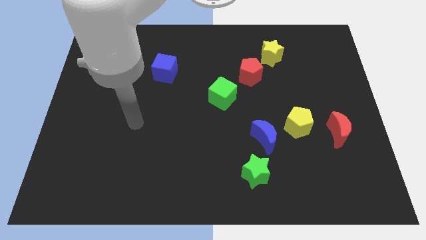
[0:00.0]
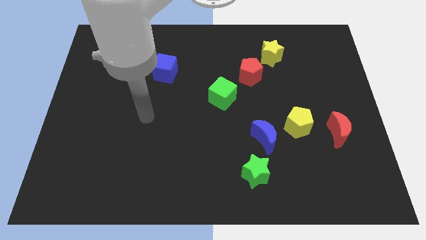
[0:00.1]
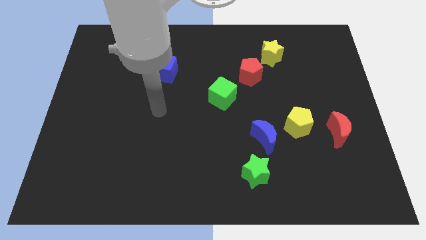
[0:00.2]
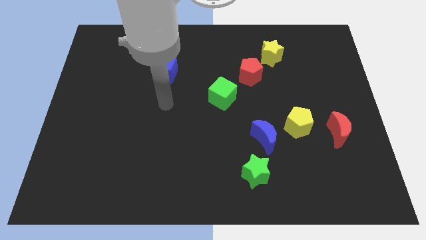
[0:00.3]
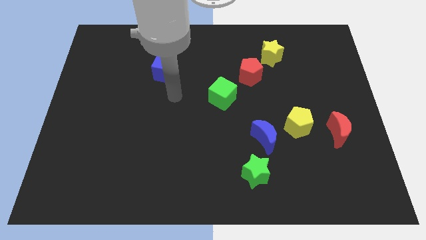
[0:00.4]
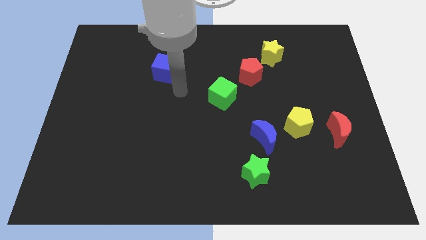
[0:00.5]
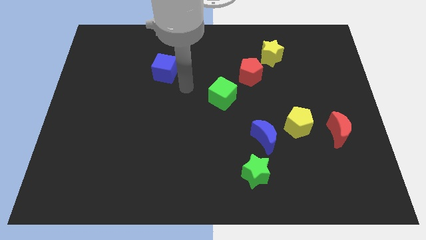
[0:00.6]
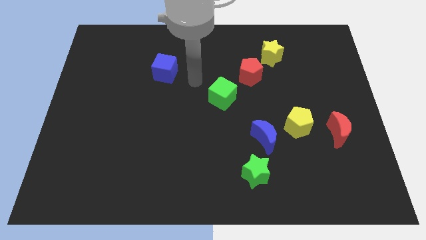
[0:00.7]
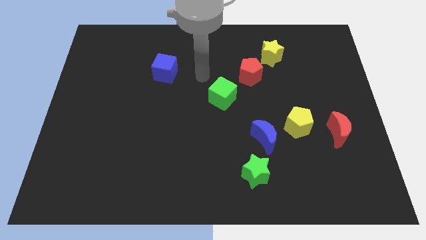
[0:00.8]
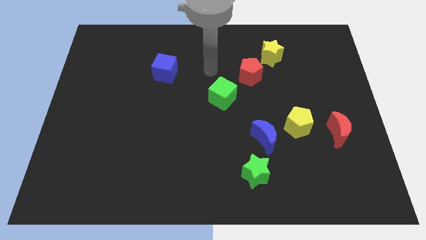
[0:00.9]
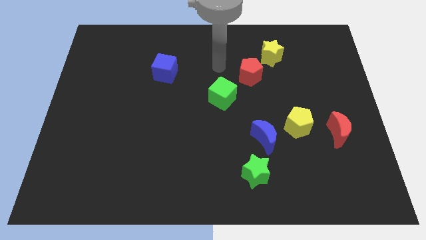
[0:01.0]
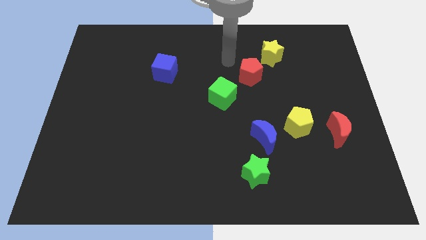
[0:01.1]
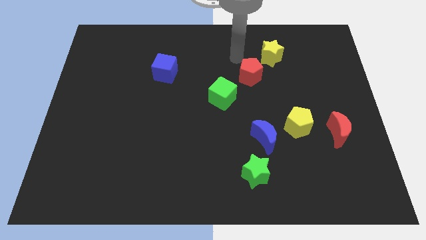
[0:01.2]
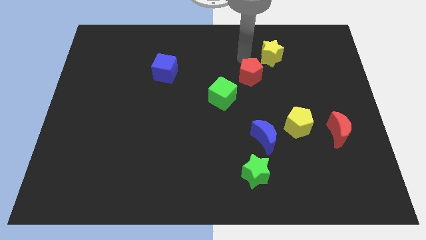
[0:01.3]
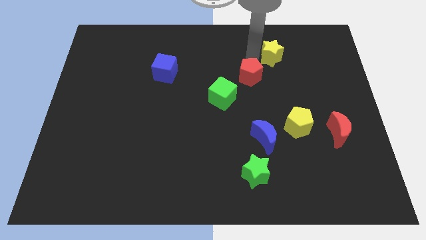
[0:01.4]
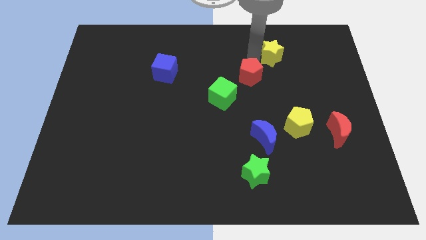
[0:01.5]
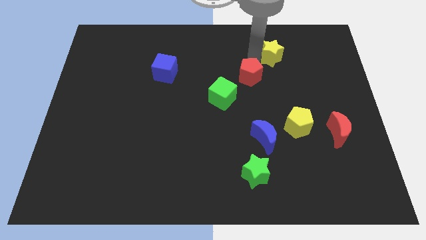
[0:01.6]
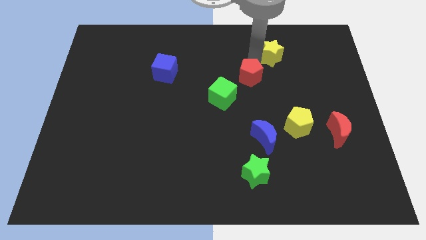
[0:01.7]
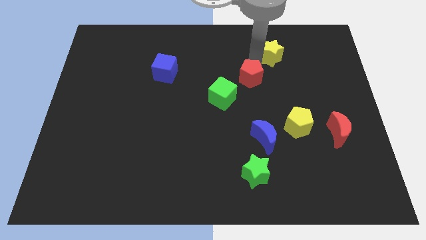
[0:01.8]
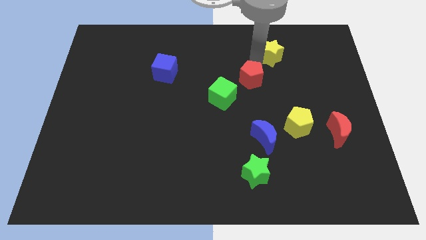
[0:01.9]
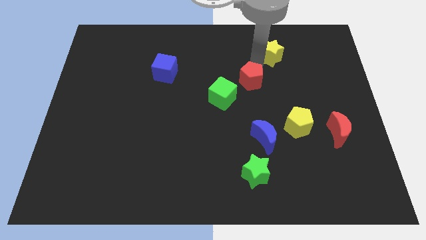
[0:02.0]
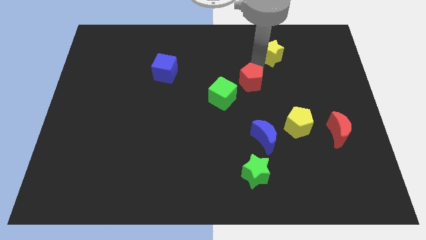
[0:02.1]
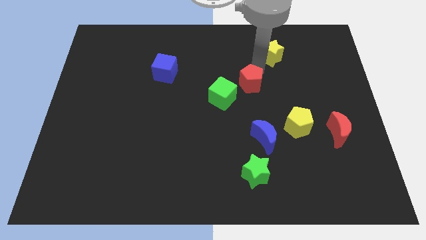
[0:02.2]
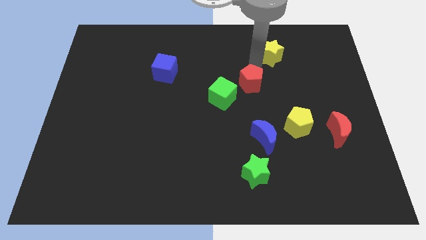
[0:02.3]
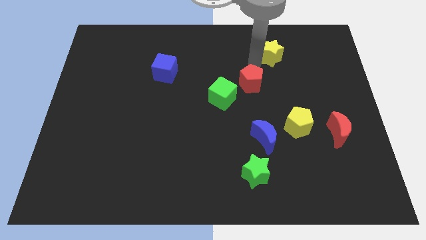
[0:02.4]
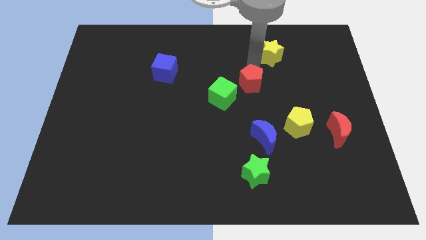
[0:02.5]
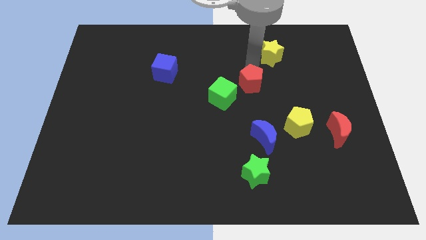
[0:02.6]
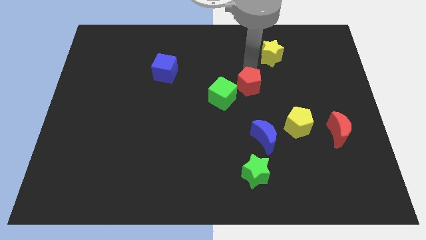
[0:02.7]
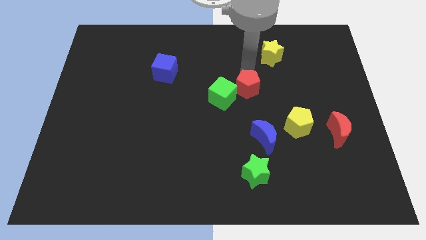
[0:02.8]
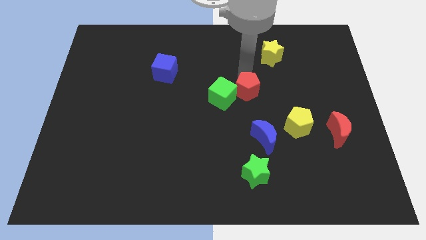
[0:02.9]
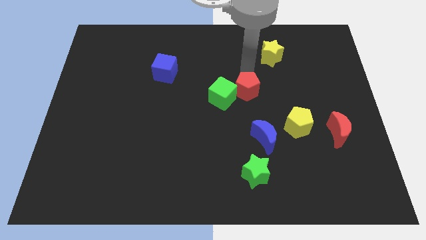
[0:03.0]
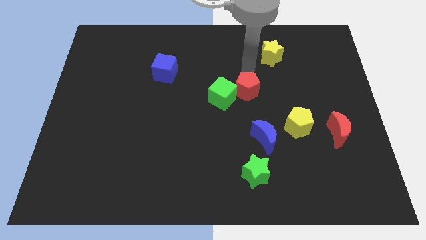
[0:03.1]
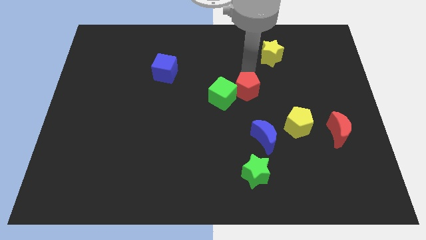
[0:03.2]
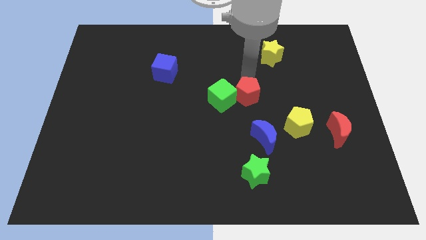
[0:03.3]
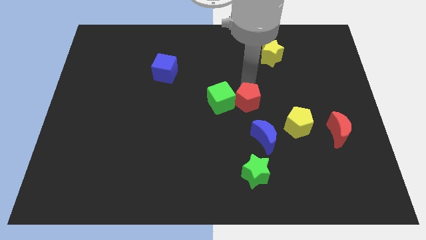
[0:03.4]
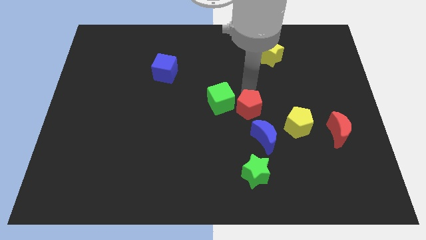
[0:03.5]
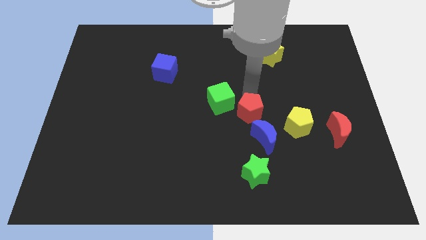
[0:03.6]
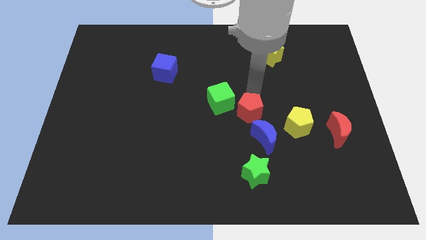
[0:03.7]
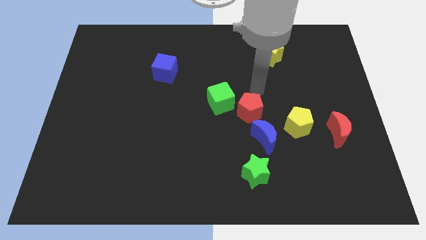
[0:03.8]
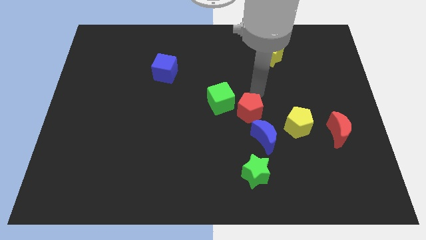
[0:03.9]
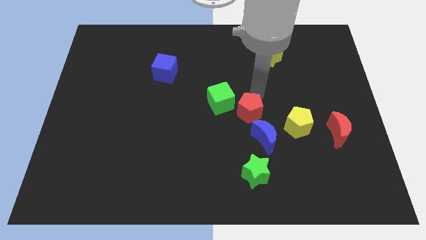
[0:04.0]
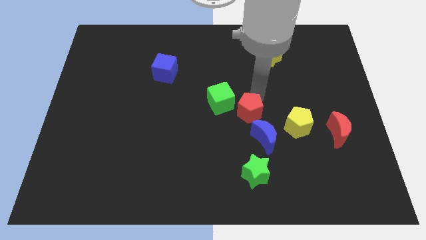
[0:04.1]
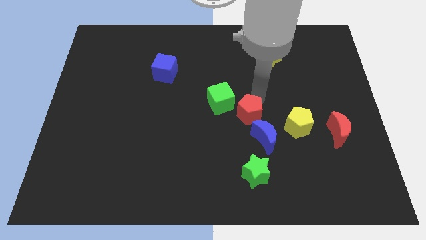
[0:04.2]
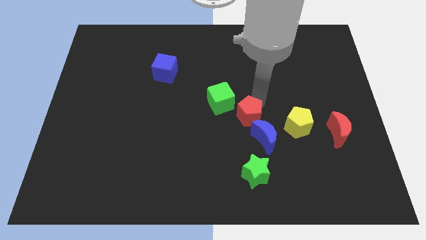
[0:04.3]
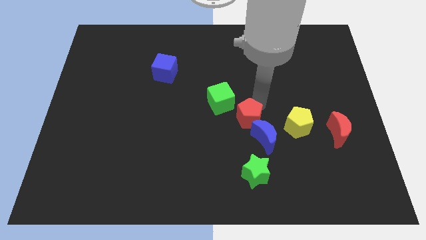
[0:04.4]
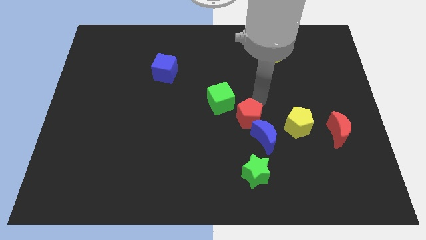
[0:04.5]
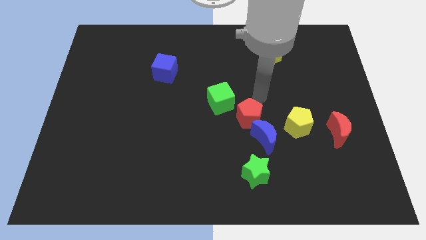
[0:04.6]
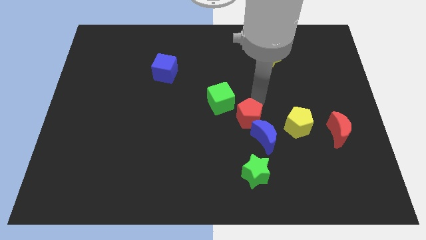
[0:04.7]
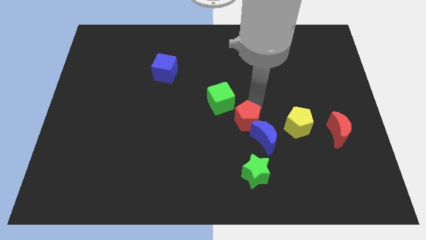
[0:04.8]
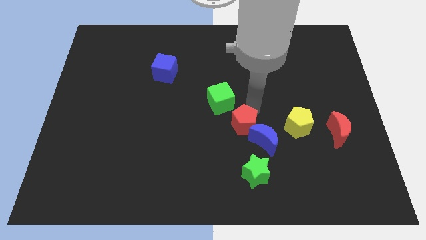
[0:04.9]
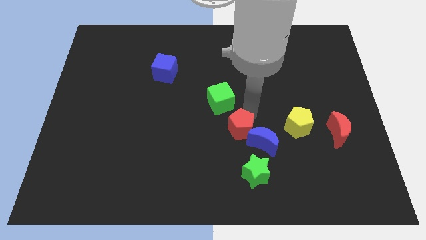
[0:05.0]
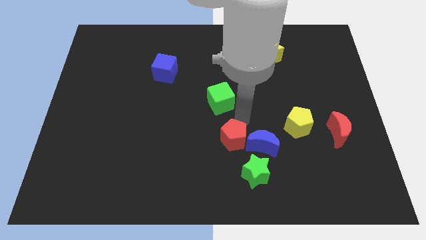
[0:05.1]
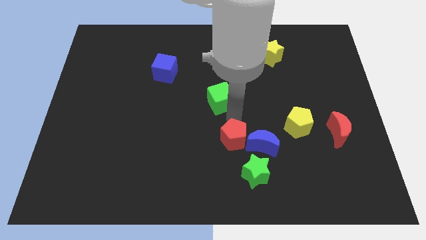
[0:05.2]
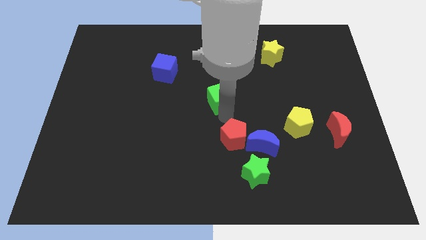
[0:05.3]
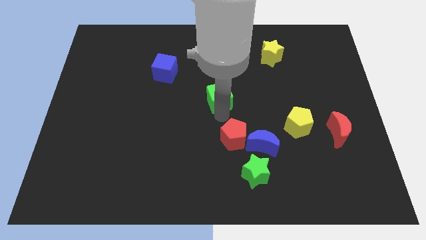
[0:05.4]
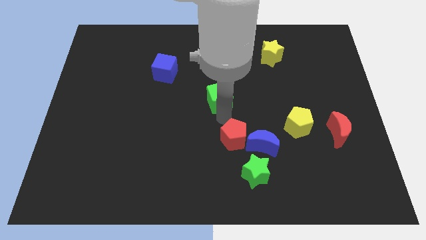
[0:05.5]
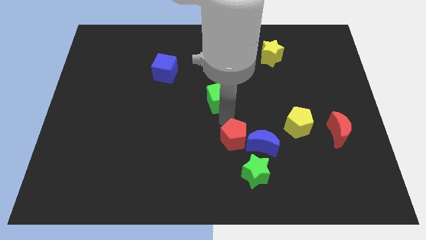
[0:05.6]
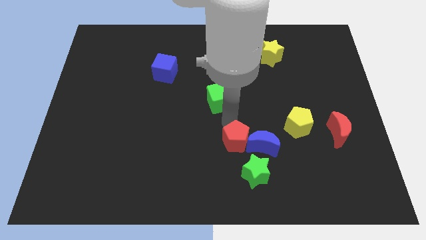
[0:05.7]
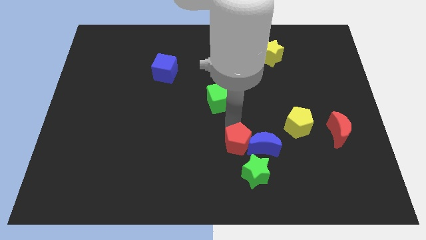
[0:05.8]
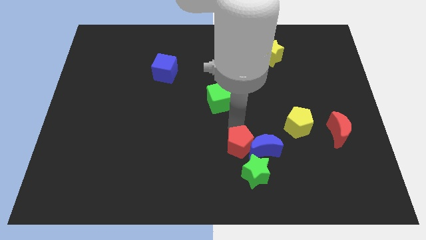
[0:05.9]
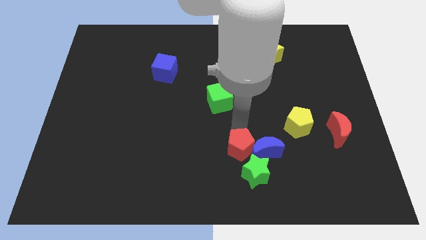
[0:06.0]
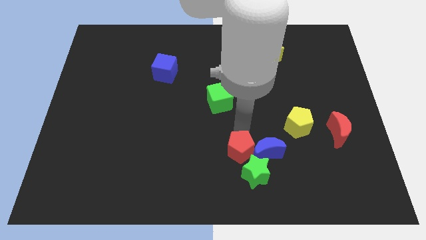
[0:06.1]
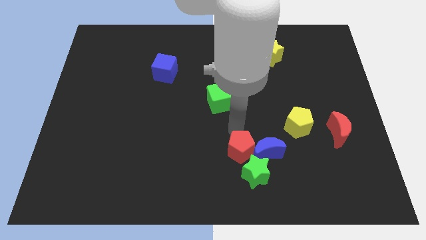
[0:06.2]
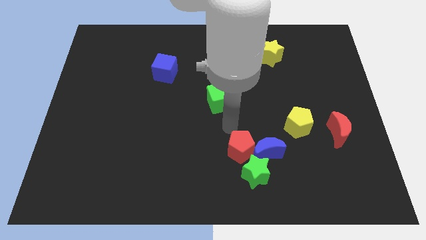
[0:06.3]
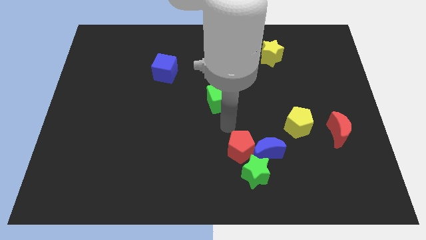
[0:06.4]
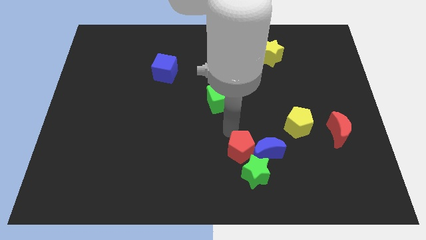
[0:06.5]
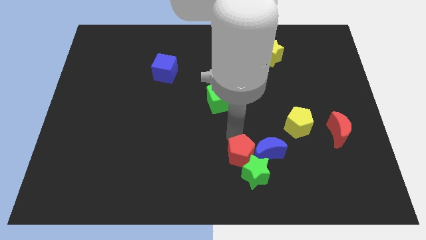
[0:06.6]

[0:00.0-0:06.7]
slide the red pentagon next to the green star

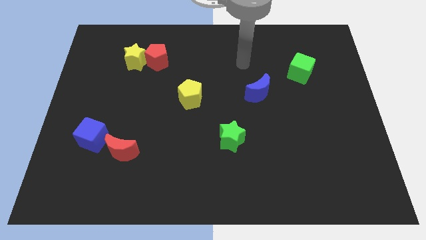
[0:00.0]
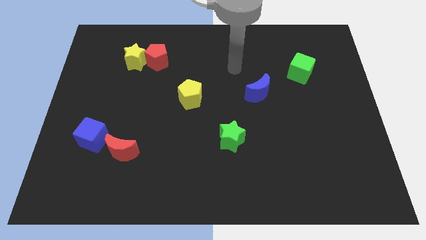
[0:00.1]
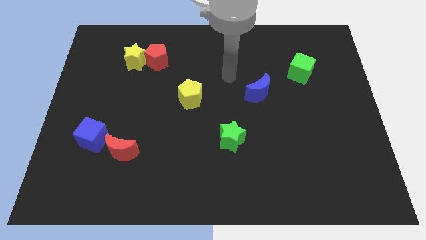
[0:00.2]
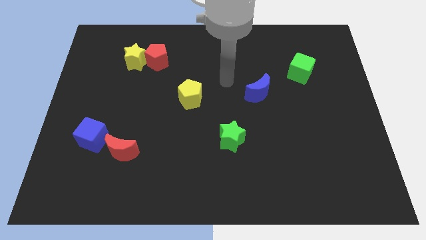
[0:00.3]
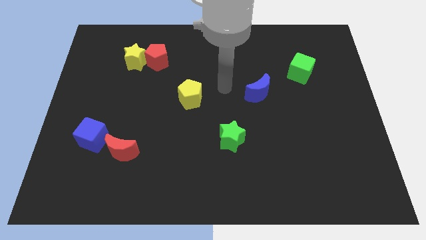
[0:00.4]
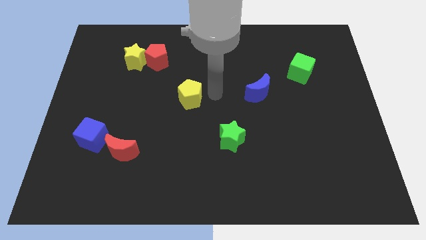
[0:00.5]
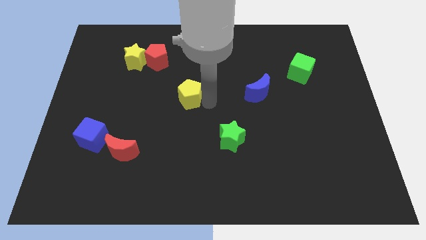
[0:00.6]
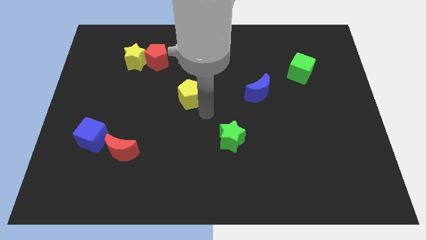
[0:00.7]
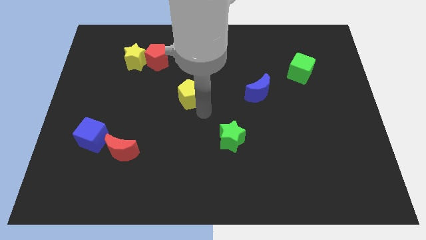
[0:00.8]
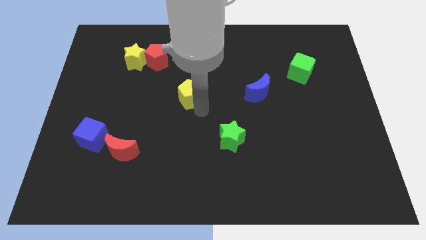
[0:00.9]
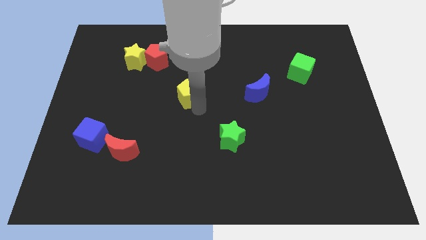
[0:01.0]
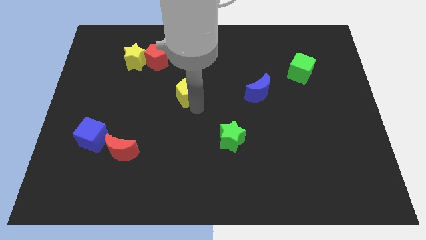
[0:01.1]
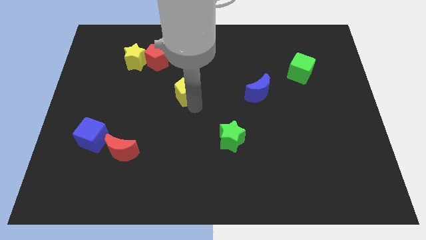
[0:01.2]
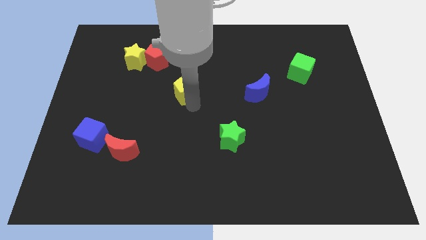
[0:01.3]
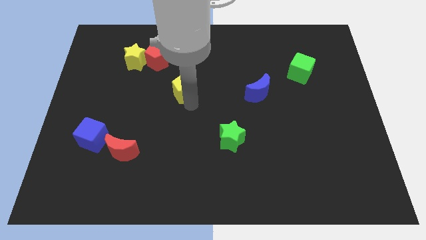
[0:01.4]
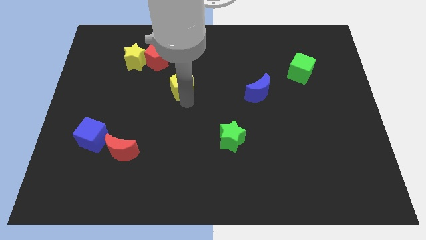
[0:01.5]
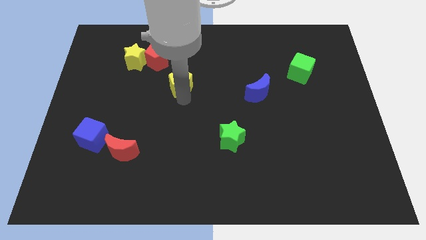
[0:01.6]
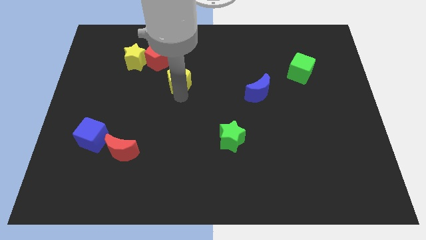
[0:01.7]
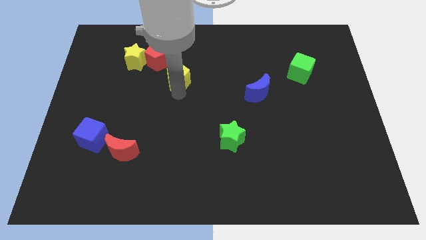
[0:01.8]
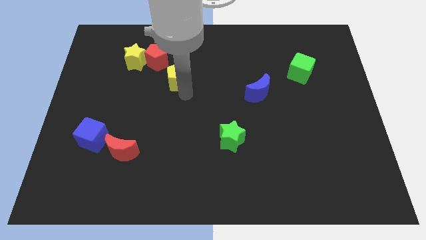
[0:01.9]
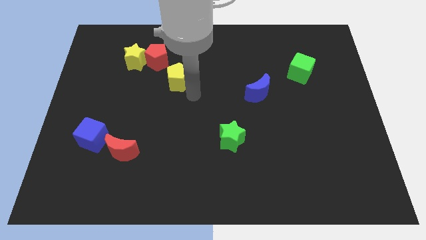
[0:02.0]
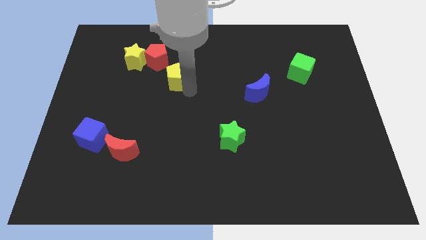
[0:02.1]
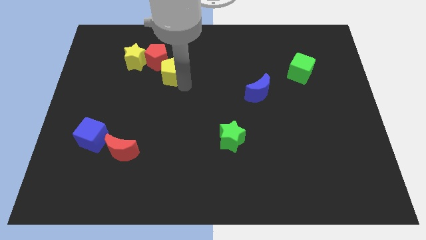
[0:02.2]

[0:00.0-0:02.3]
slide the yellow pentagon towards the red pentagon
